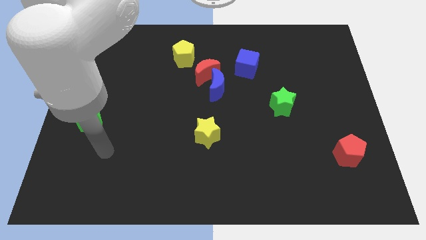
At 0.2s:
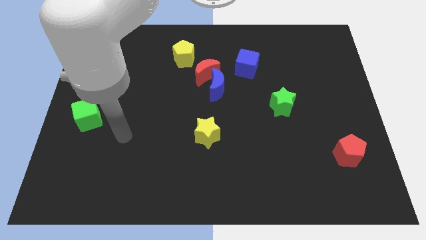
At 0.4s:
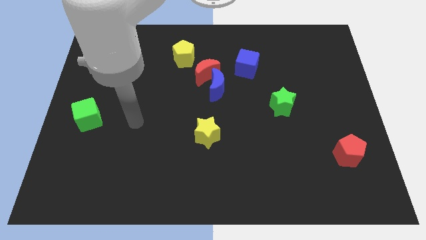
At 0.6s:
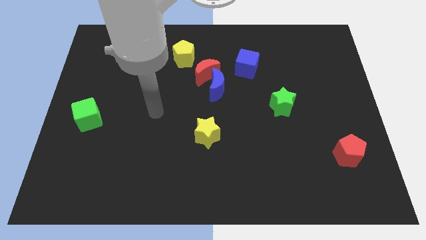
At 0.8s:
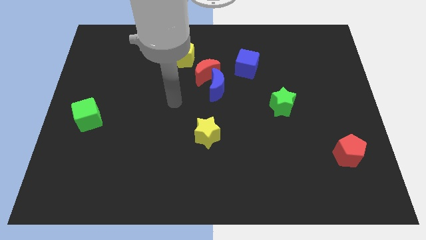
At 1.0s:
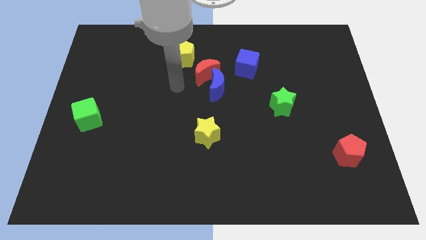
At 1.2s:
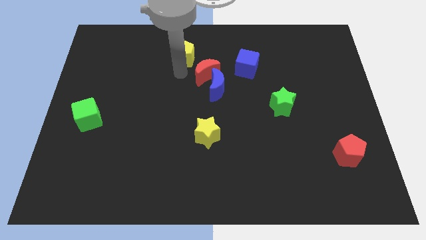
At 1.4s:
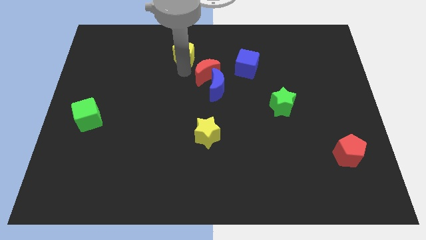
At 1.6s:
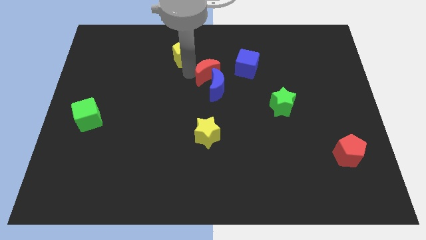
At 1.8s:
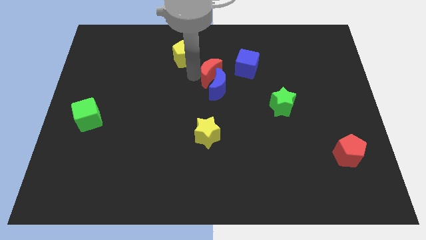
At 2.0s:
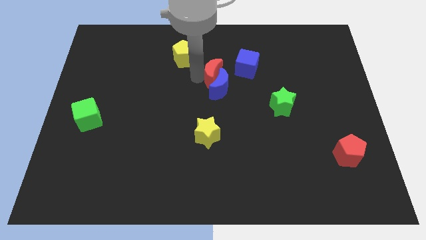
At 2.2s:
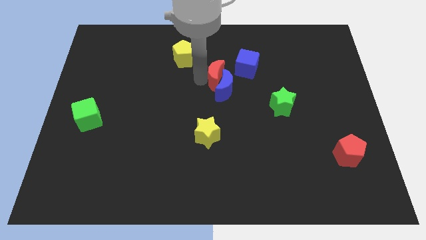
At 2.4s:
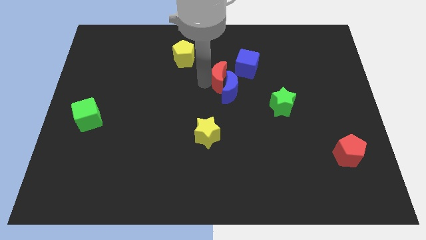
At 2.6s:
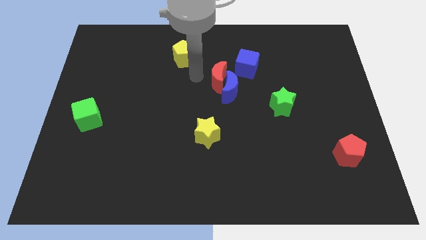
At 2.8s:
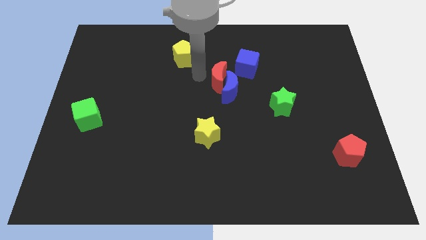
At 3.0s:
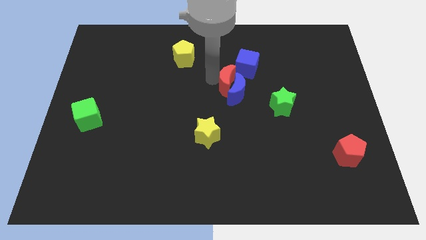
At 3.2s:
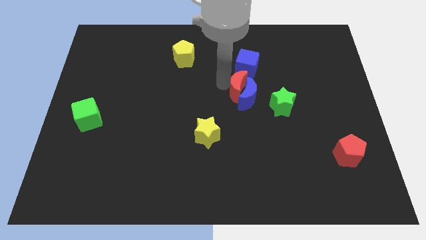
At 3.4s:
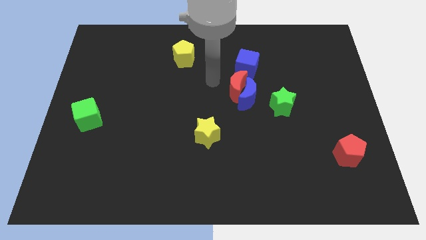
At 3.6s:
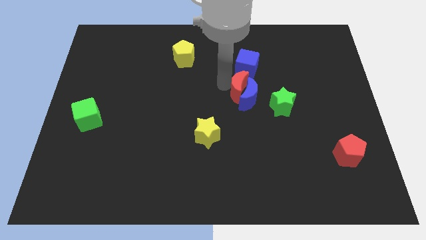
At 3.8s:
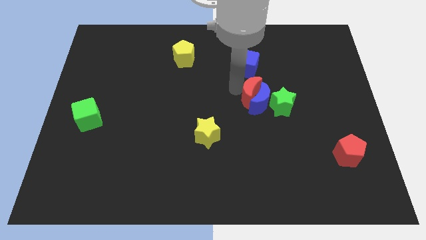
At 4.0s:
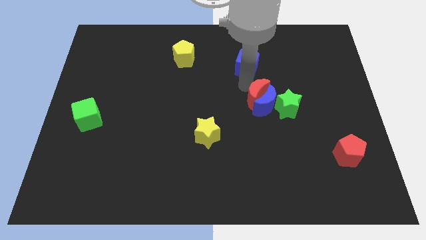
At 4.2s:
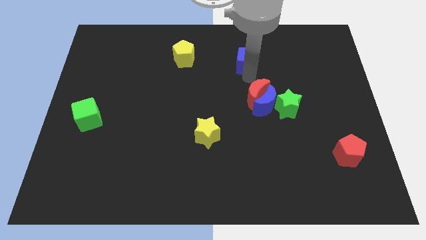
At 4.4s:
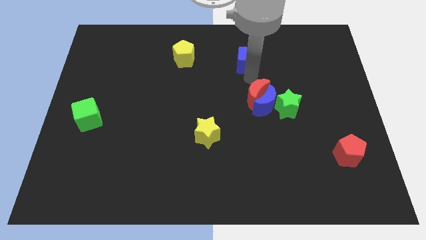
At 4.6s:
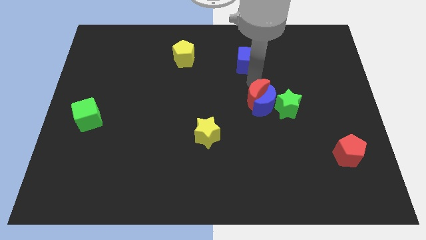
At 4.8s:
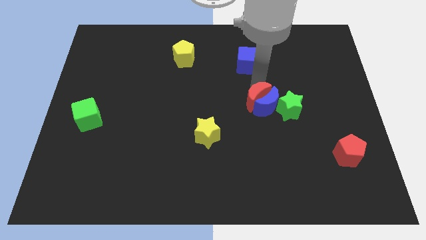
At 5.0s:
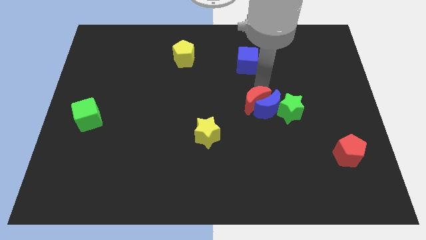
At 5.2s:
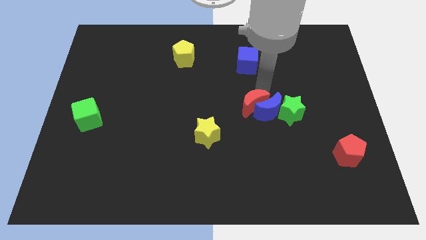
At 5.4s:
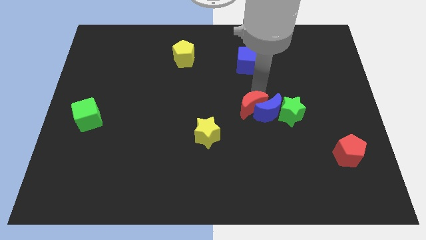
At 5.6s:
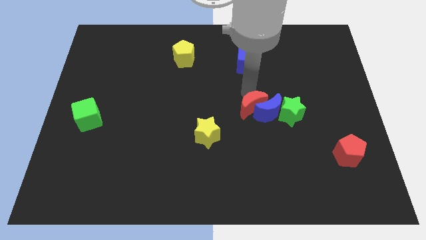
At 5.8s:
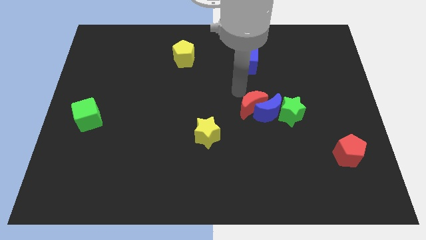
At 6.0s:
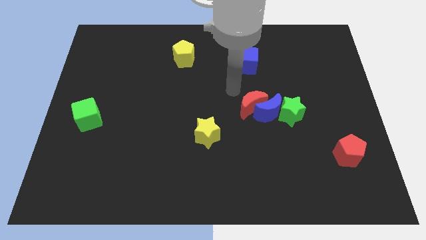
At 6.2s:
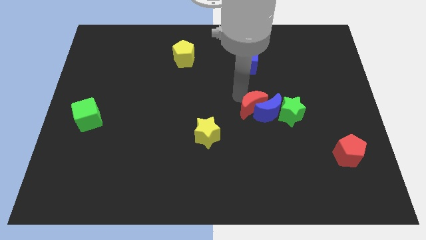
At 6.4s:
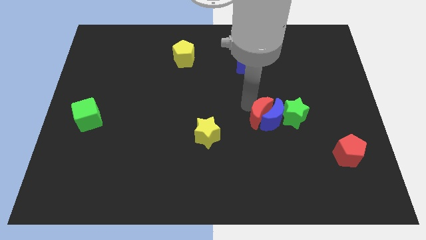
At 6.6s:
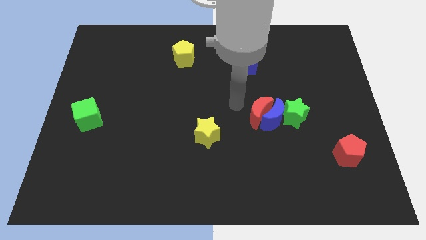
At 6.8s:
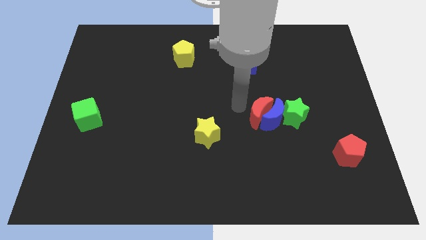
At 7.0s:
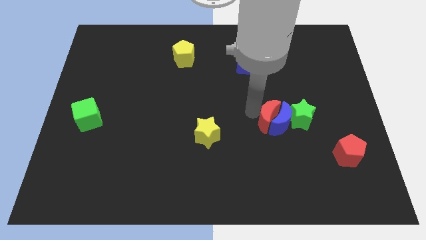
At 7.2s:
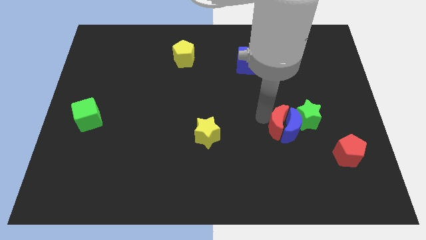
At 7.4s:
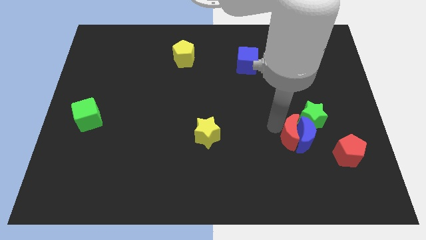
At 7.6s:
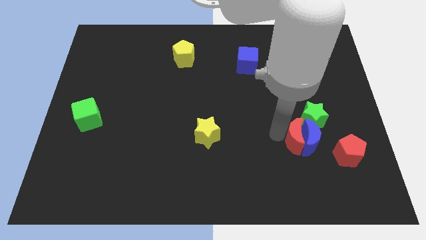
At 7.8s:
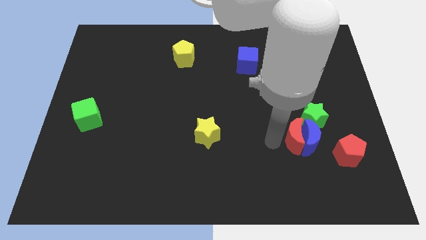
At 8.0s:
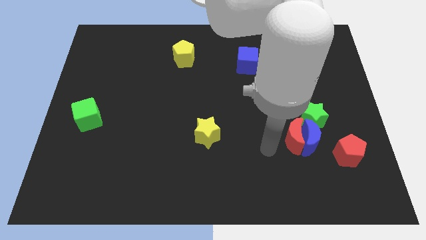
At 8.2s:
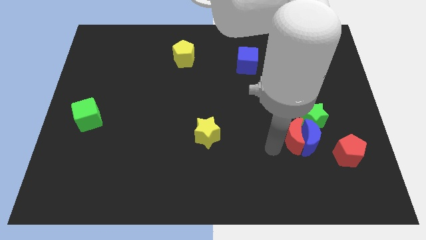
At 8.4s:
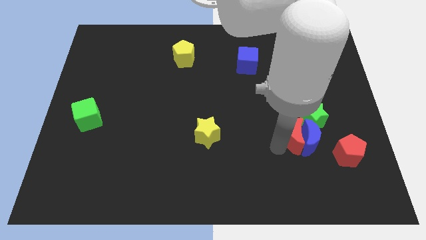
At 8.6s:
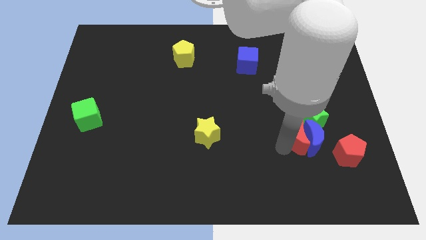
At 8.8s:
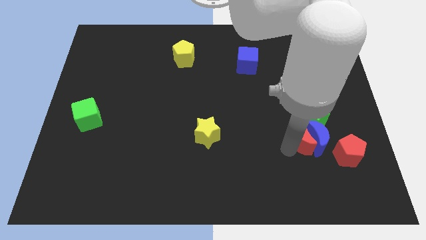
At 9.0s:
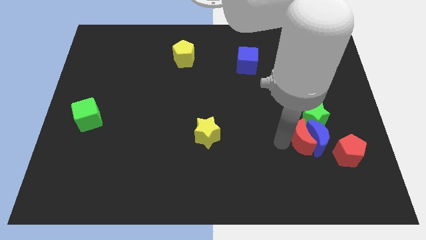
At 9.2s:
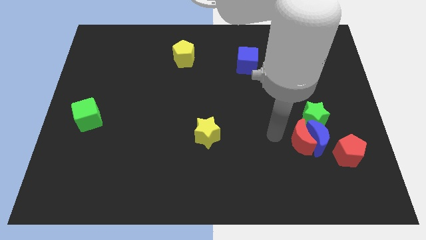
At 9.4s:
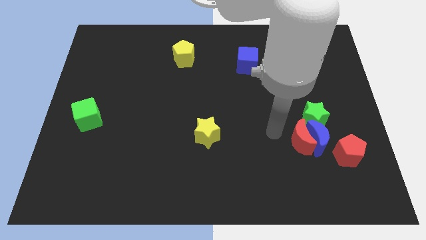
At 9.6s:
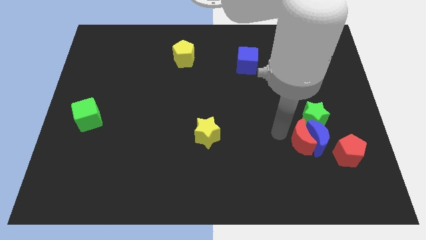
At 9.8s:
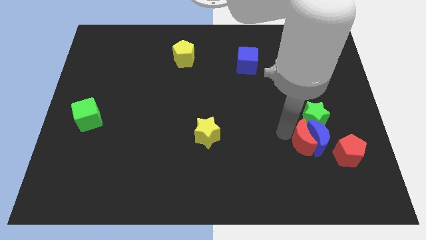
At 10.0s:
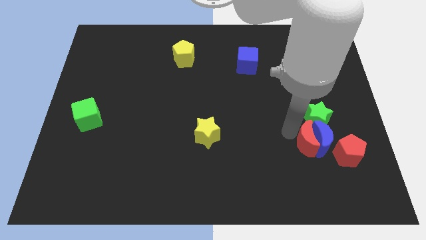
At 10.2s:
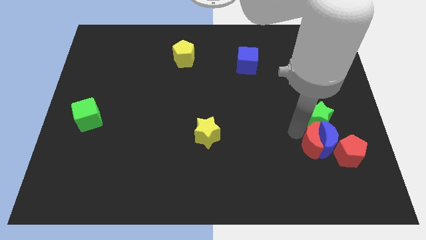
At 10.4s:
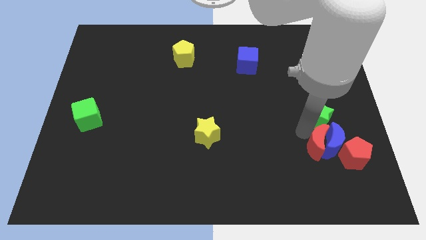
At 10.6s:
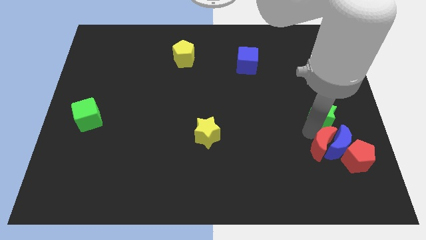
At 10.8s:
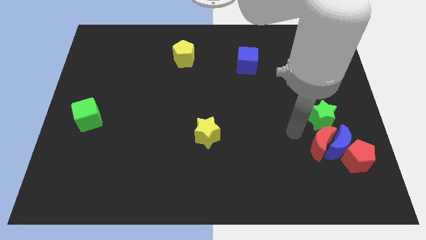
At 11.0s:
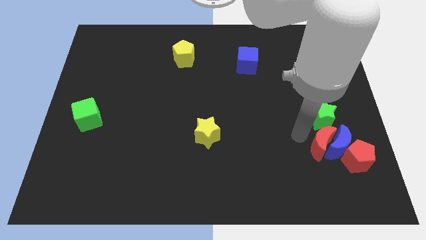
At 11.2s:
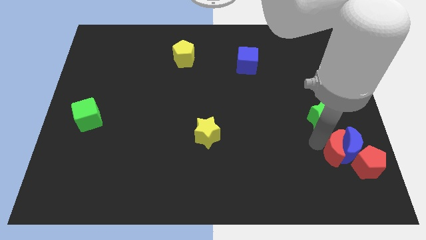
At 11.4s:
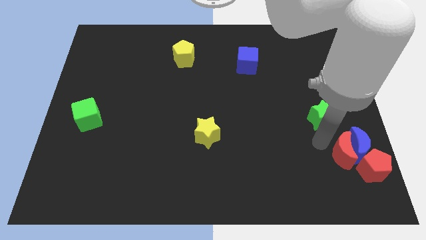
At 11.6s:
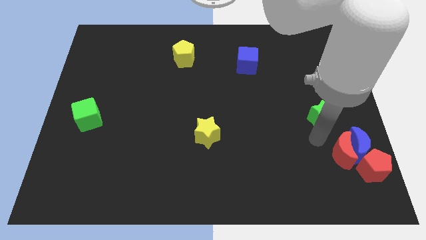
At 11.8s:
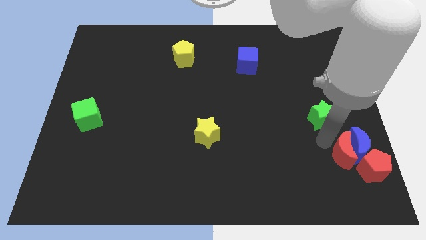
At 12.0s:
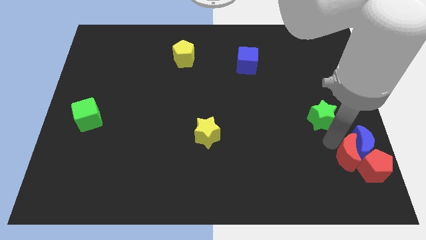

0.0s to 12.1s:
put the red moon to the red pentagon

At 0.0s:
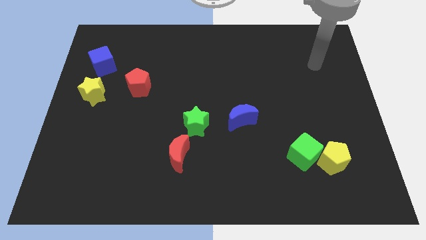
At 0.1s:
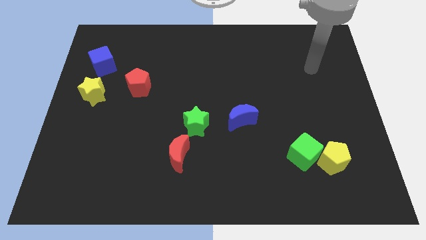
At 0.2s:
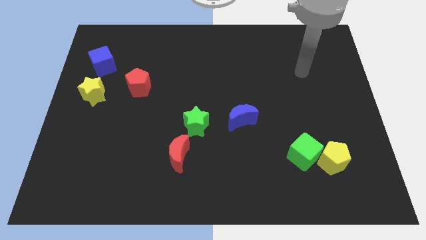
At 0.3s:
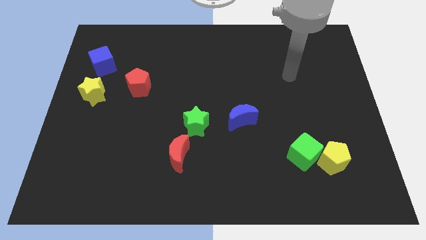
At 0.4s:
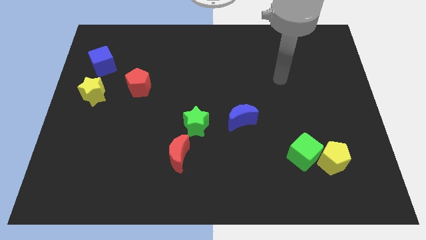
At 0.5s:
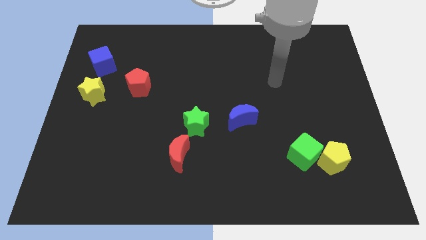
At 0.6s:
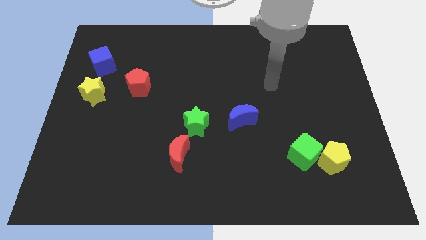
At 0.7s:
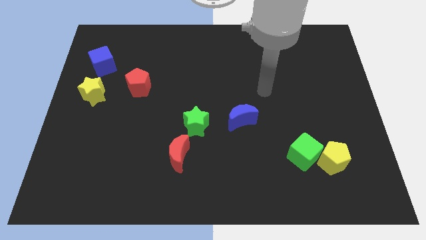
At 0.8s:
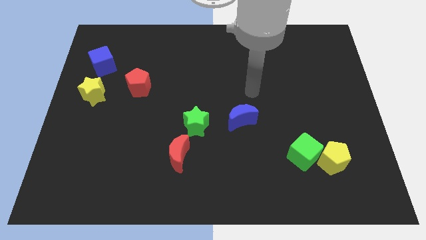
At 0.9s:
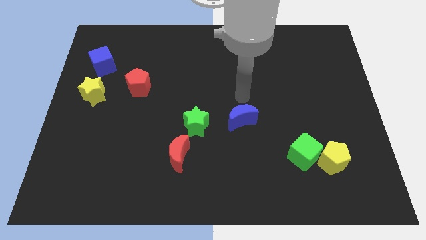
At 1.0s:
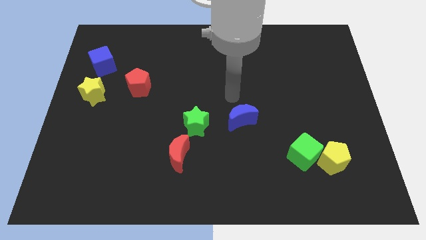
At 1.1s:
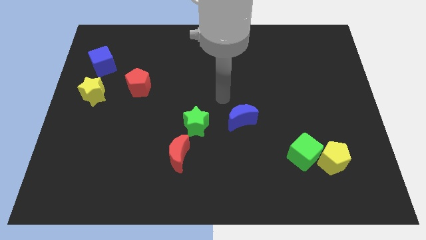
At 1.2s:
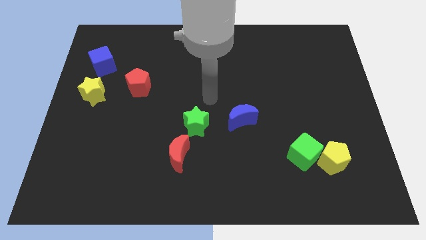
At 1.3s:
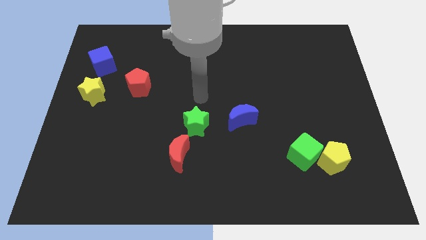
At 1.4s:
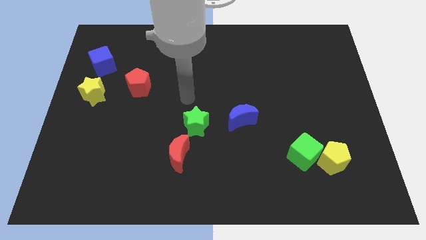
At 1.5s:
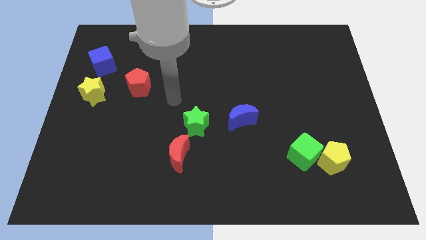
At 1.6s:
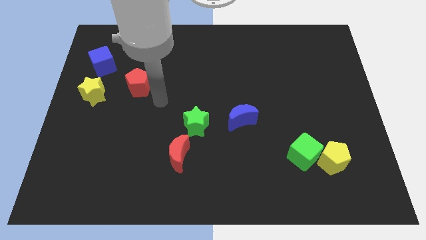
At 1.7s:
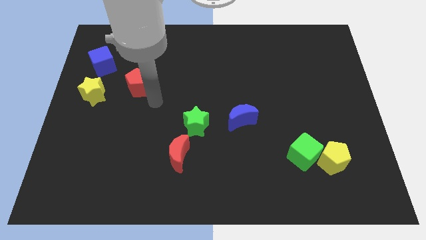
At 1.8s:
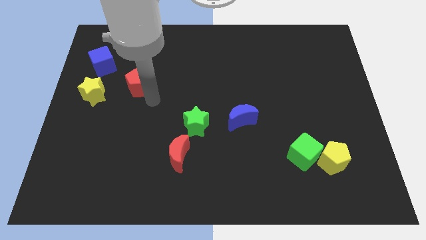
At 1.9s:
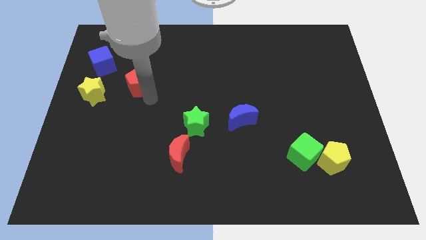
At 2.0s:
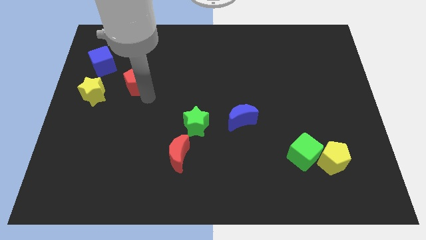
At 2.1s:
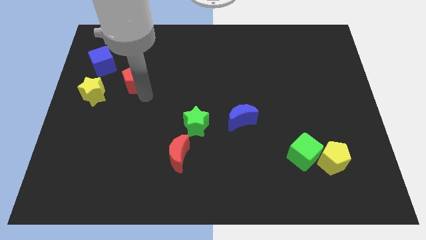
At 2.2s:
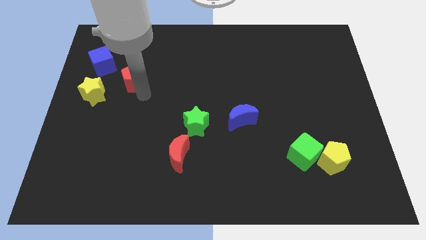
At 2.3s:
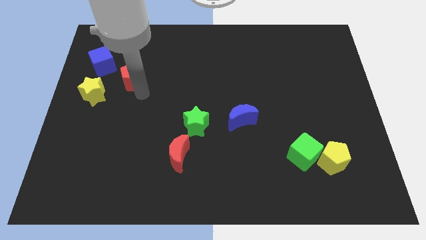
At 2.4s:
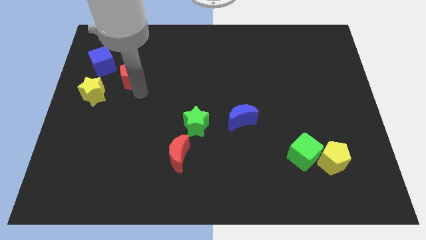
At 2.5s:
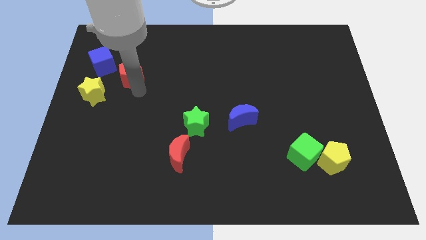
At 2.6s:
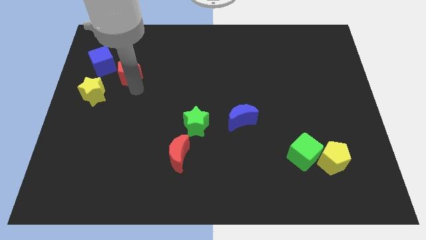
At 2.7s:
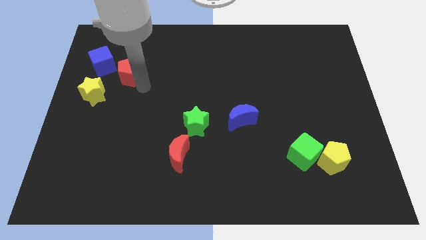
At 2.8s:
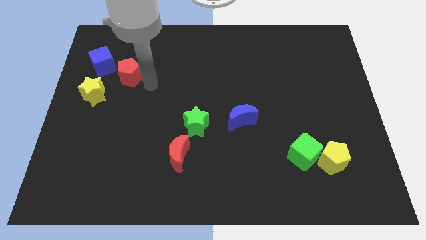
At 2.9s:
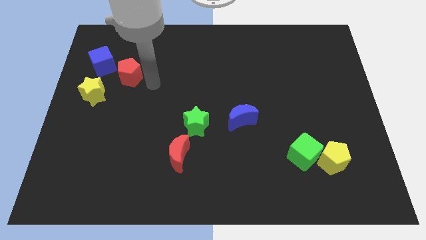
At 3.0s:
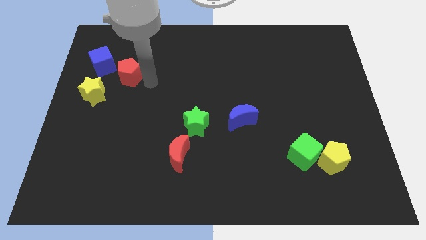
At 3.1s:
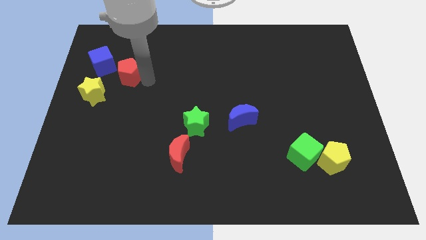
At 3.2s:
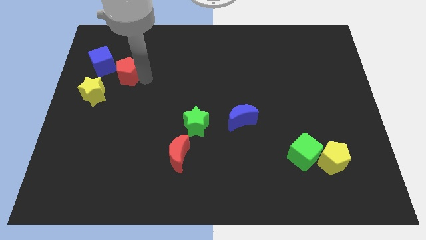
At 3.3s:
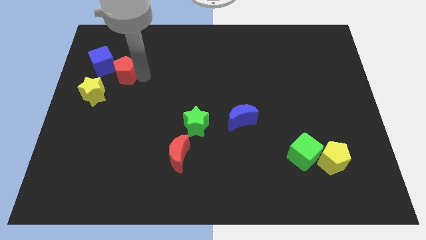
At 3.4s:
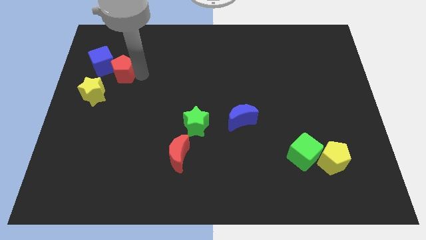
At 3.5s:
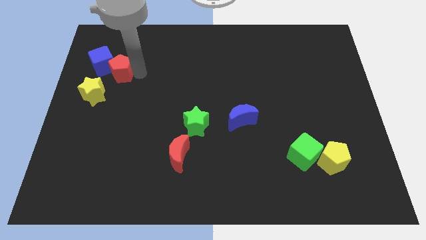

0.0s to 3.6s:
push the red pentagon towards the blue cube
